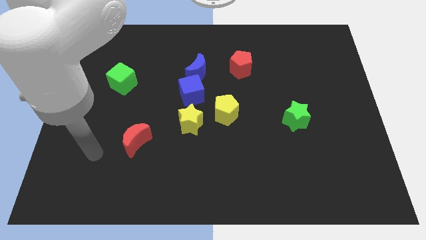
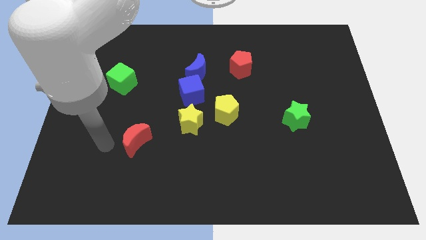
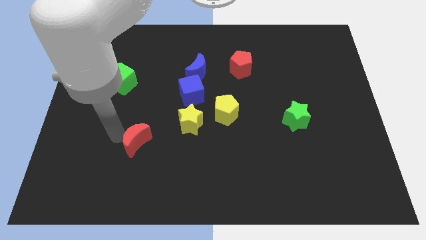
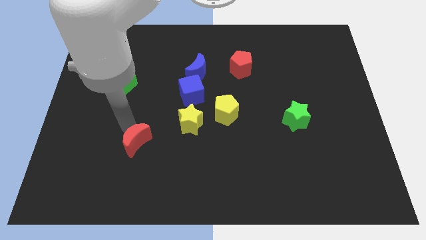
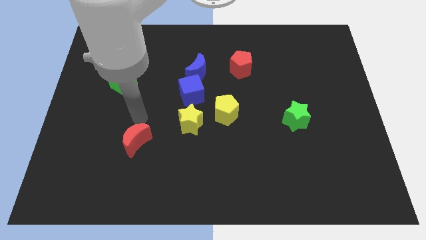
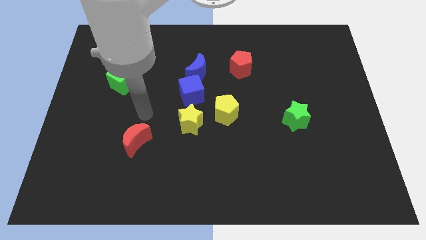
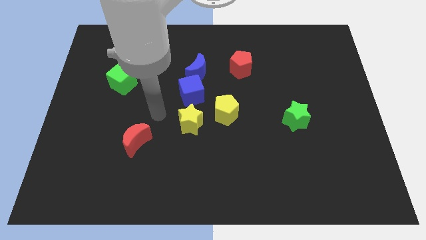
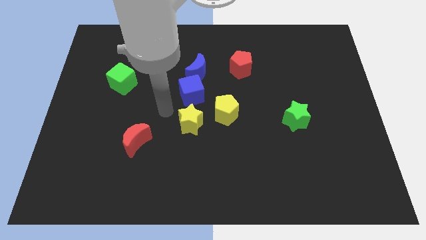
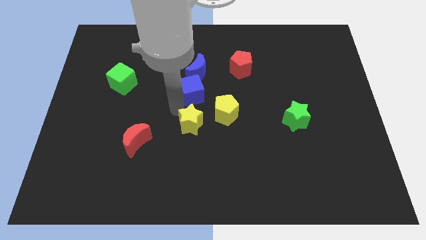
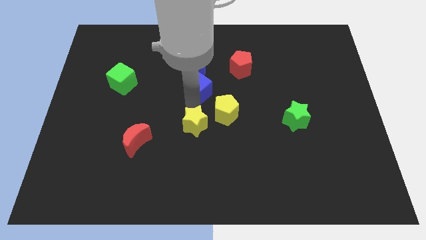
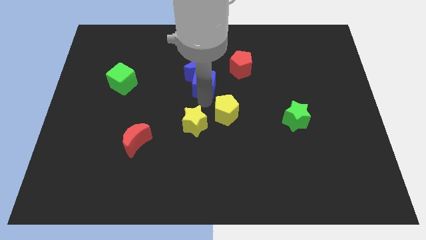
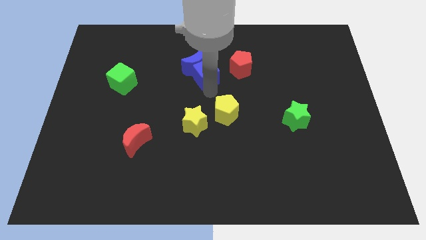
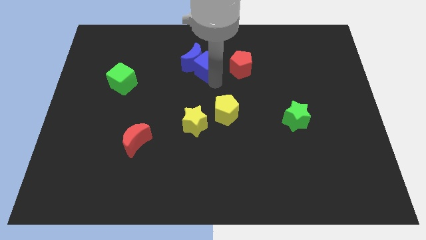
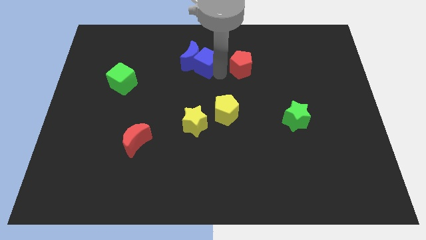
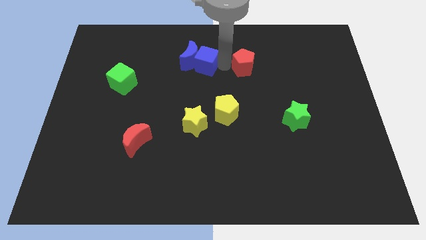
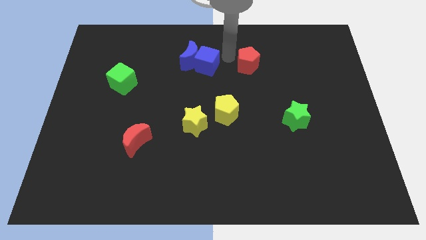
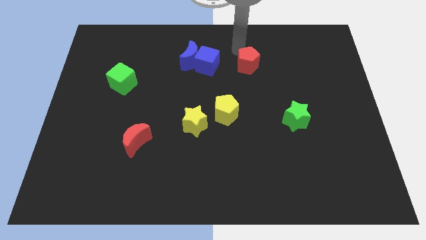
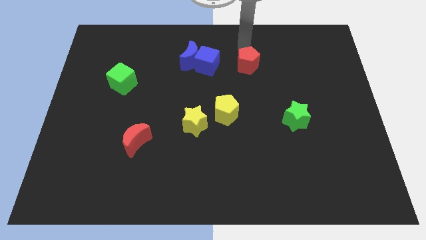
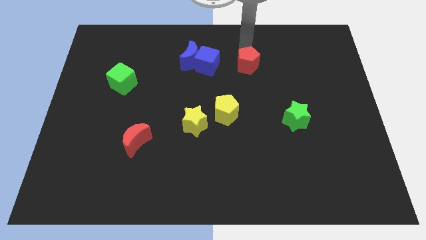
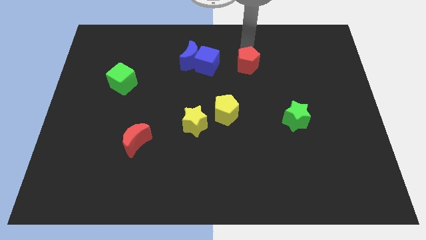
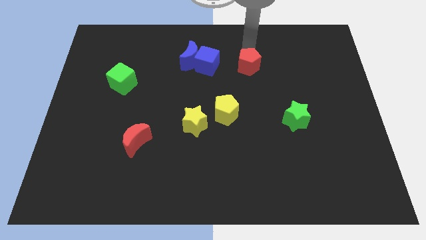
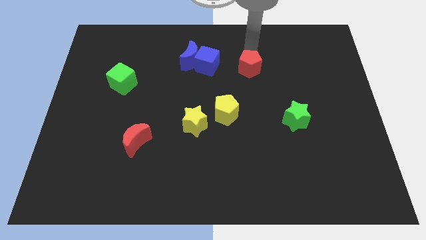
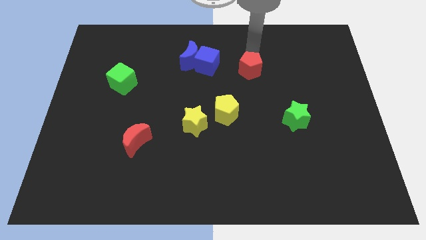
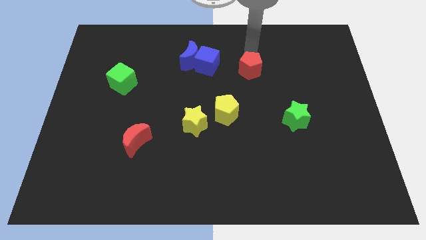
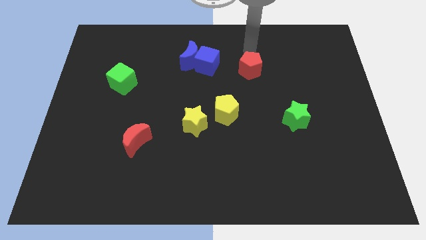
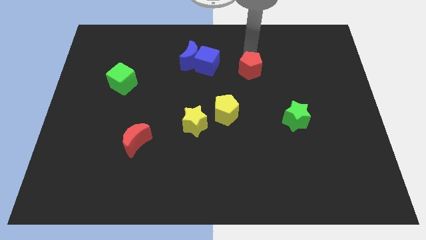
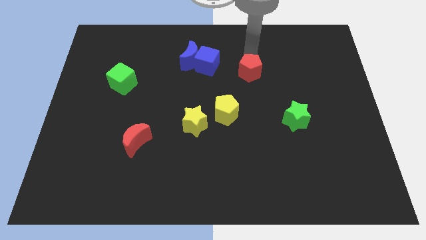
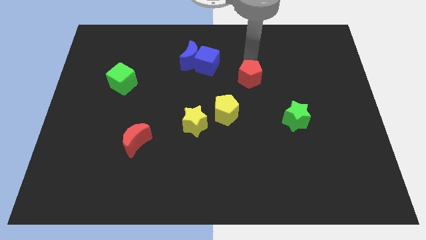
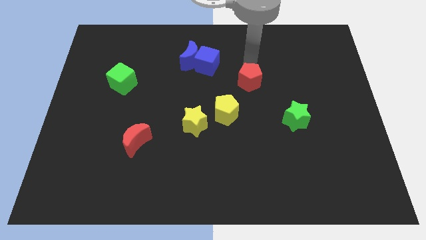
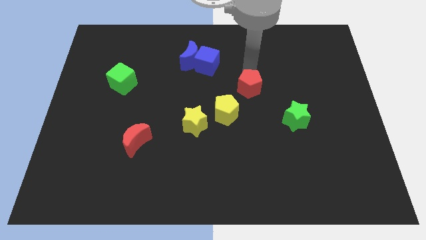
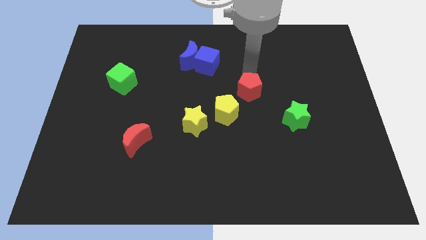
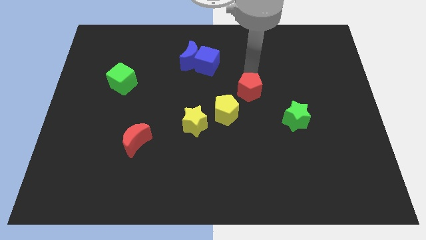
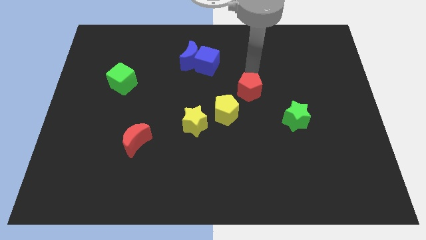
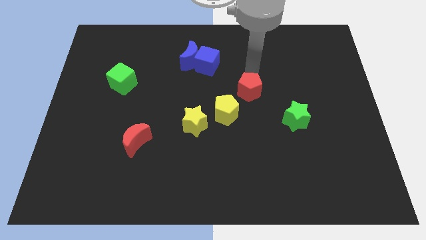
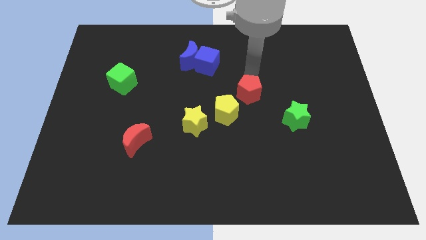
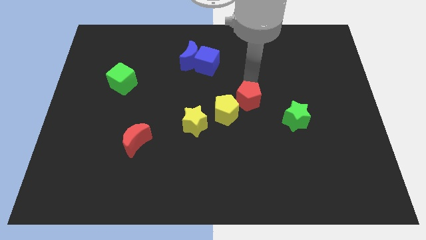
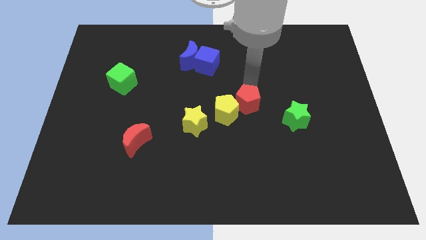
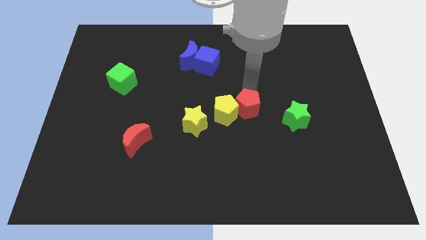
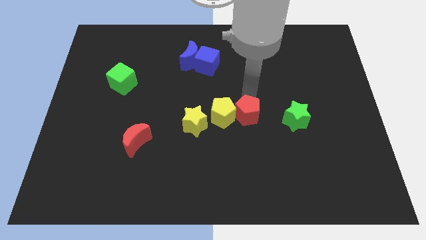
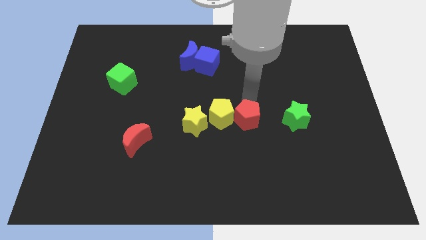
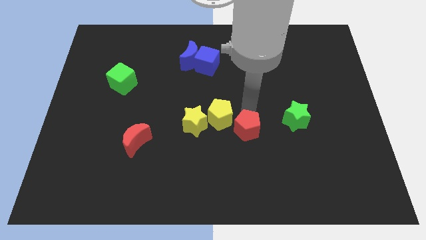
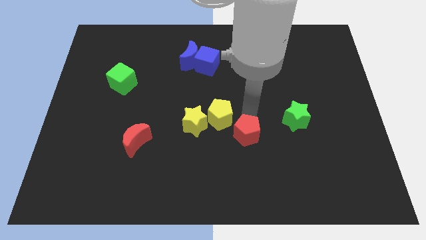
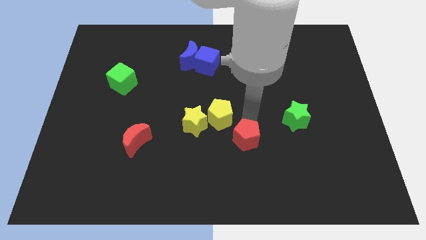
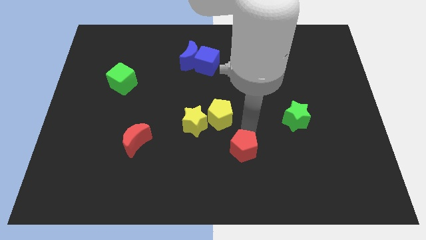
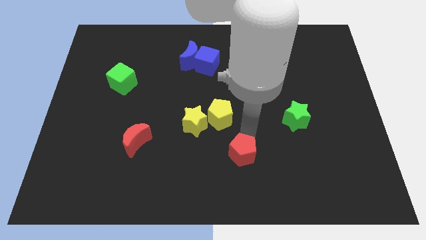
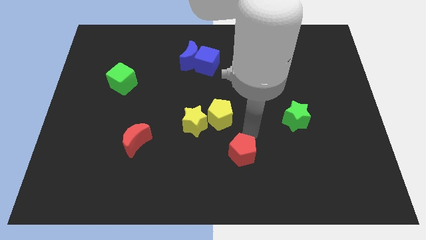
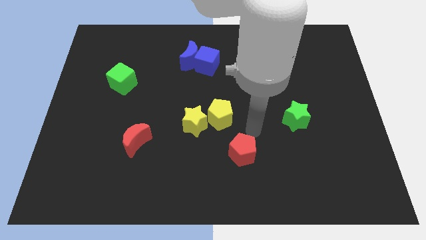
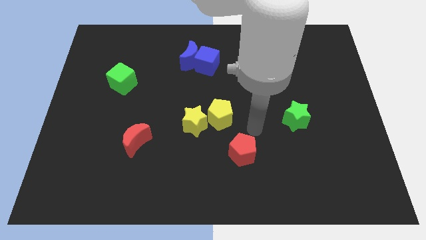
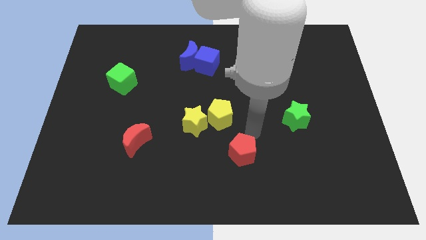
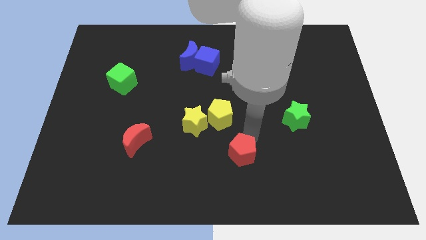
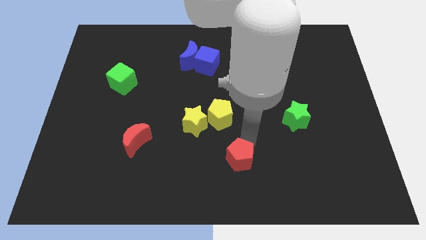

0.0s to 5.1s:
put the red pentagon to the bottom side

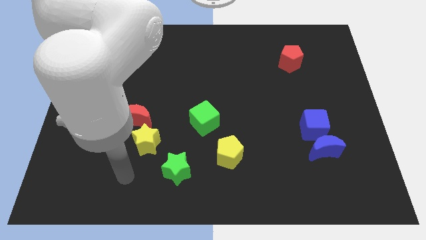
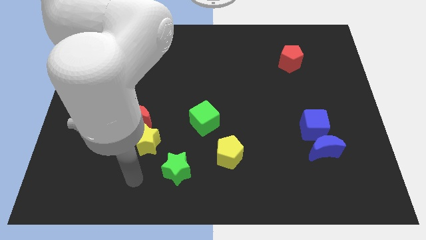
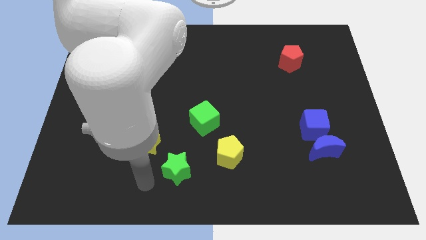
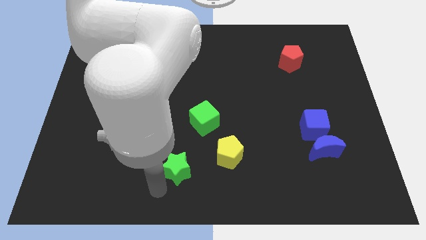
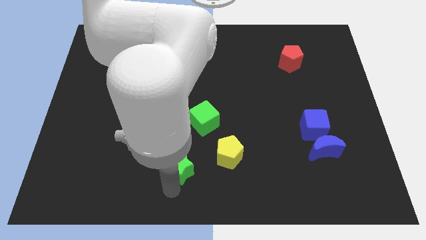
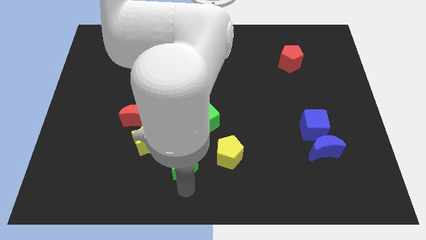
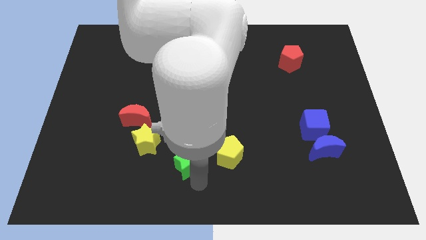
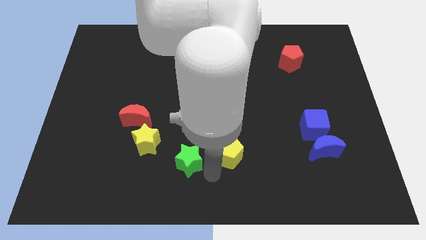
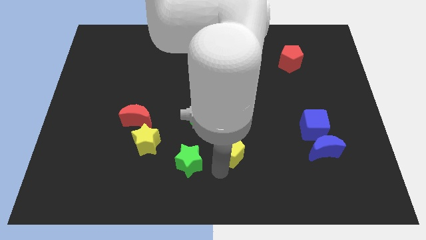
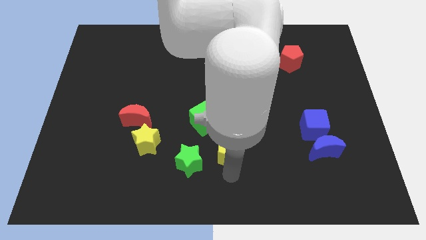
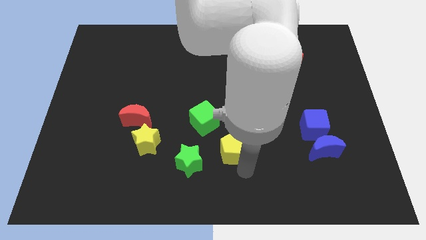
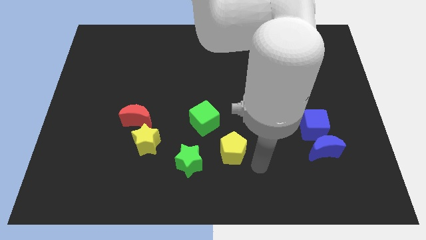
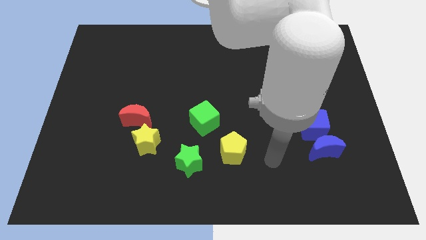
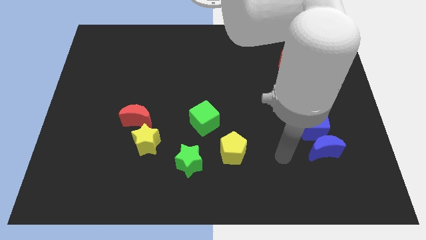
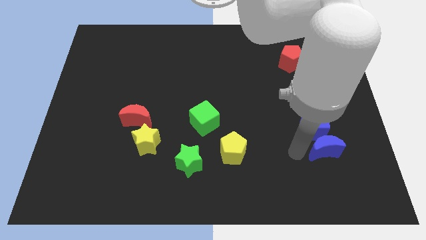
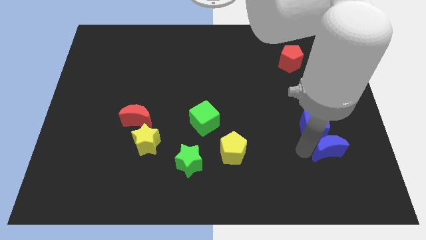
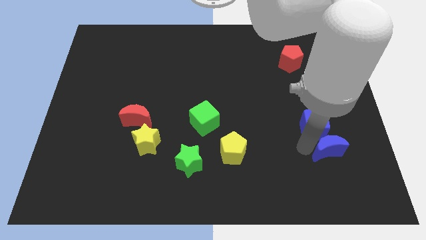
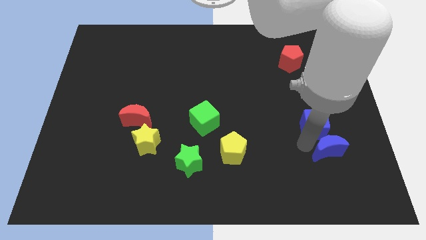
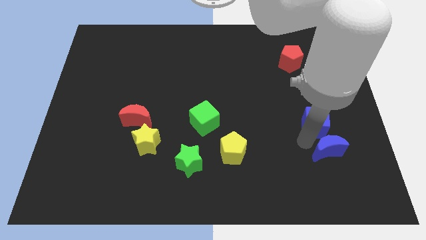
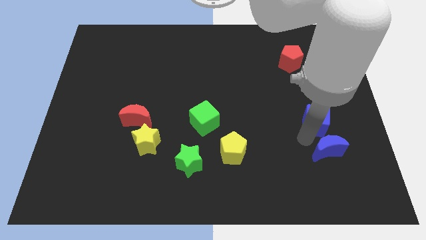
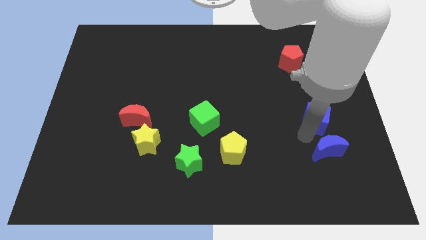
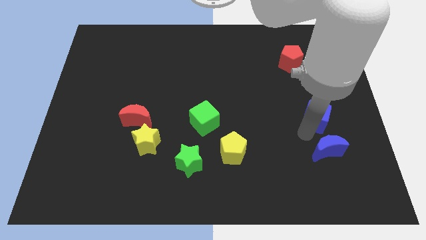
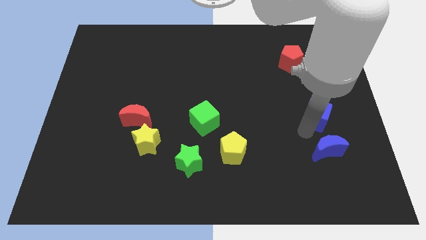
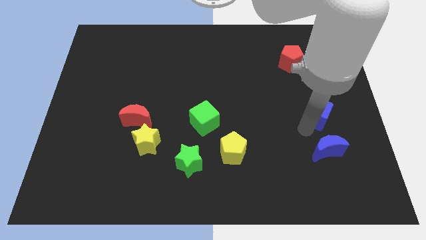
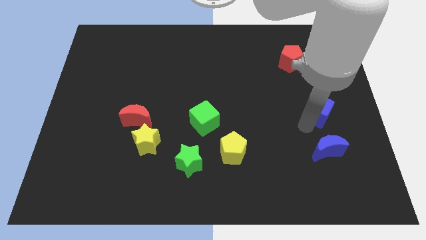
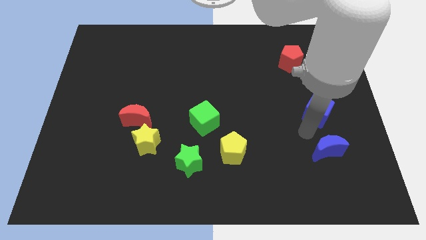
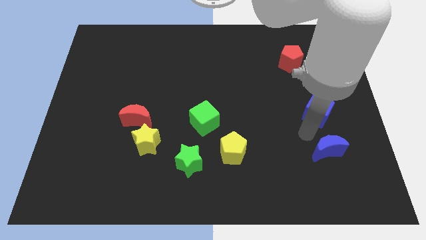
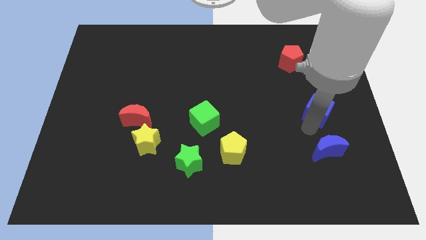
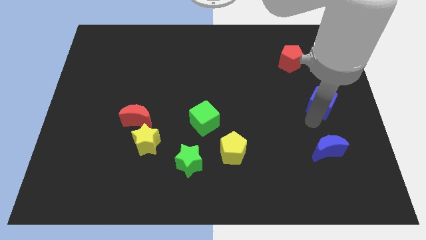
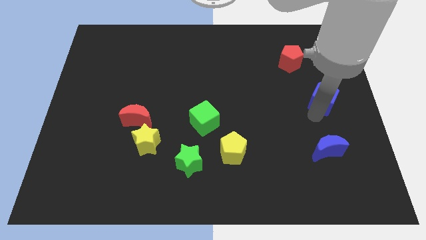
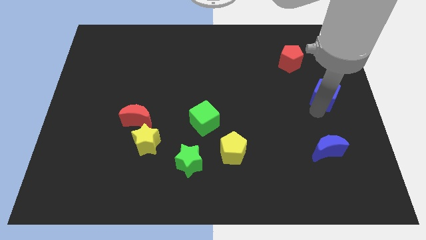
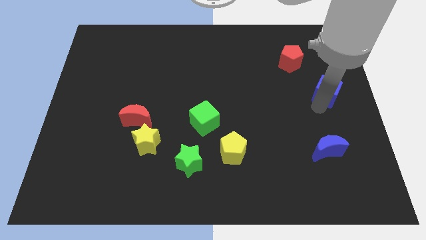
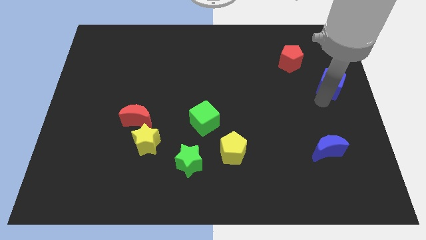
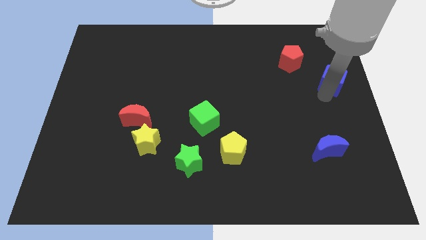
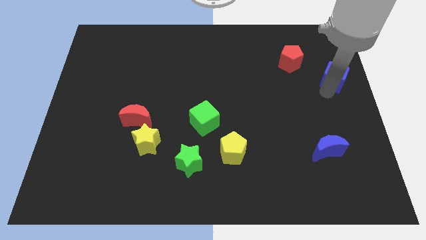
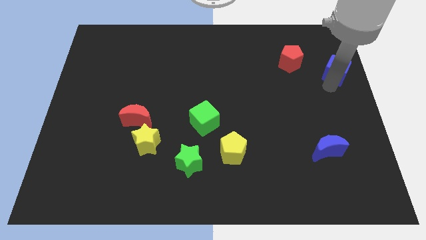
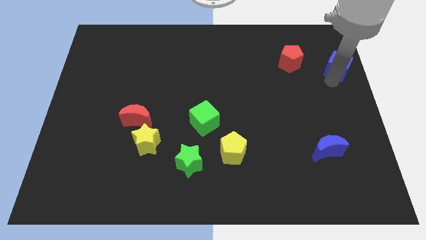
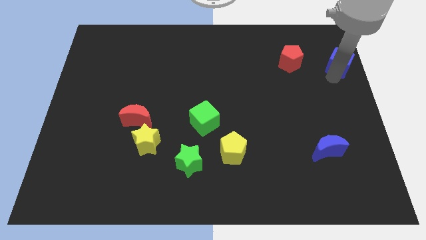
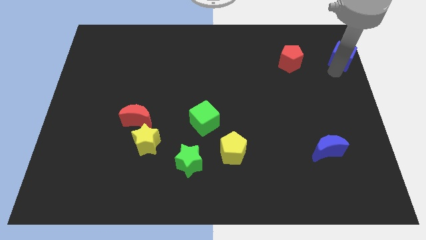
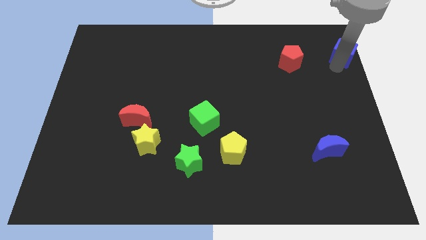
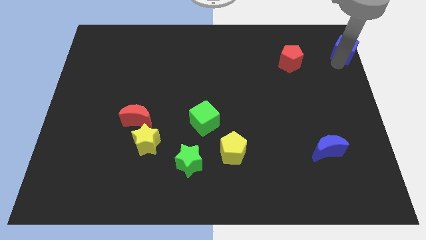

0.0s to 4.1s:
push the blue cube to the top right
